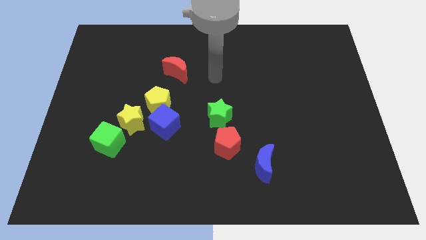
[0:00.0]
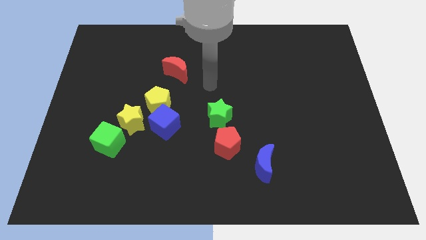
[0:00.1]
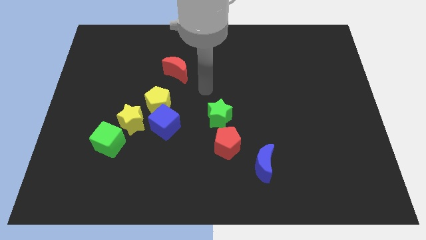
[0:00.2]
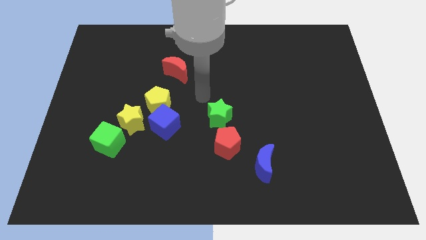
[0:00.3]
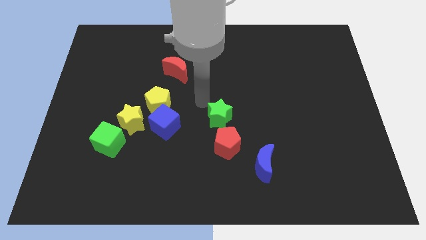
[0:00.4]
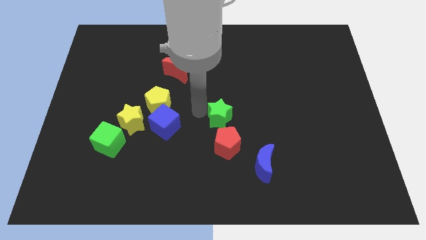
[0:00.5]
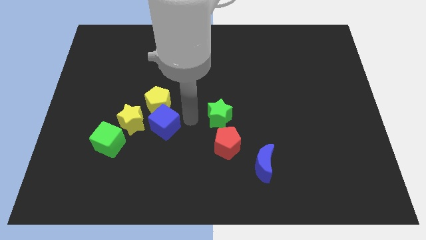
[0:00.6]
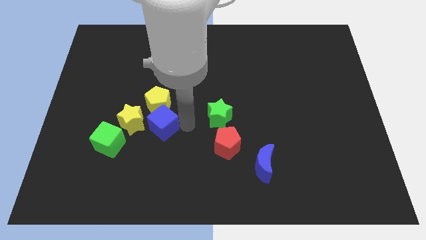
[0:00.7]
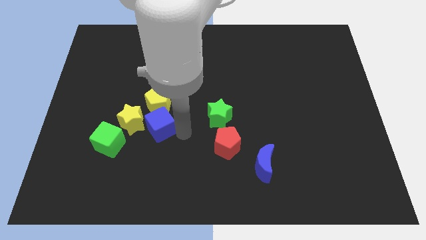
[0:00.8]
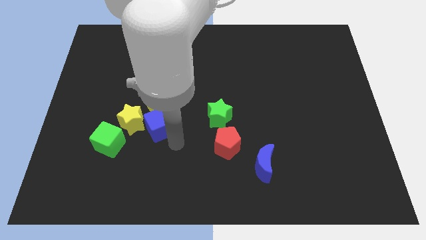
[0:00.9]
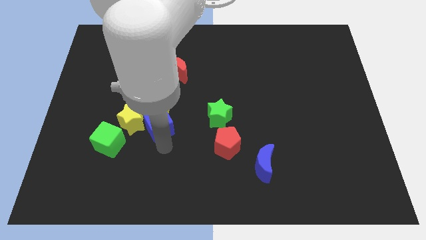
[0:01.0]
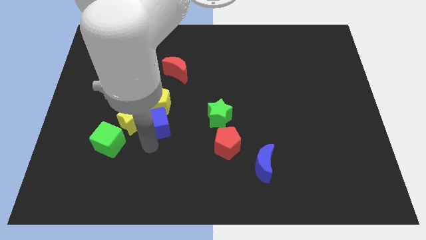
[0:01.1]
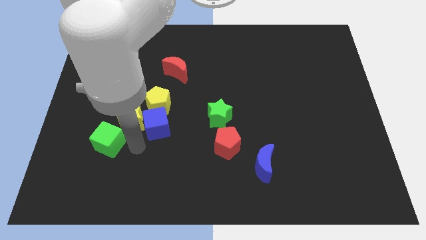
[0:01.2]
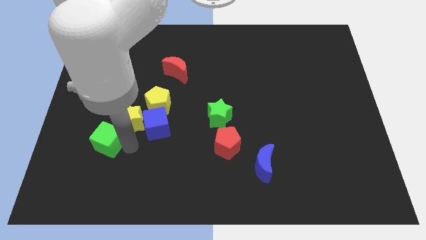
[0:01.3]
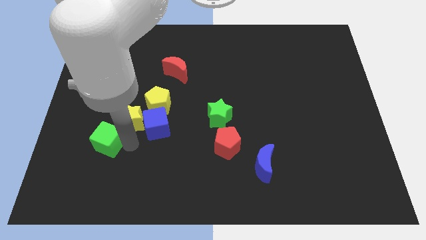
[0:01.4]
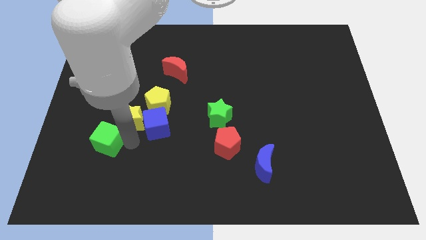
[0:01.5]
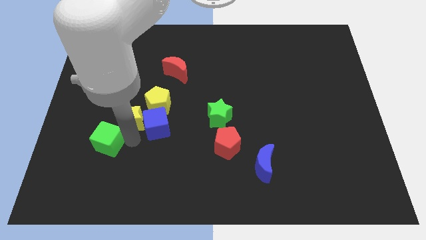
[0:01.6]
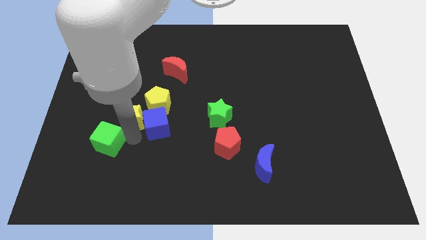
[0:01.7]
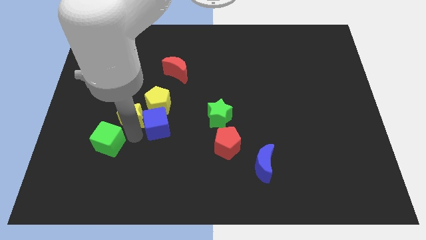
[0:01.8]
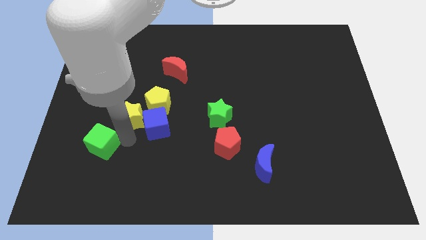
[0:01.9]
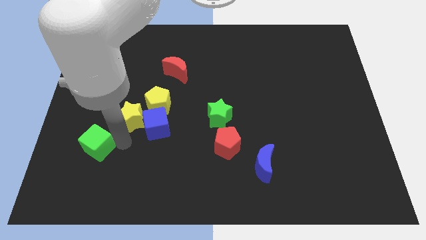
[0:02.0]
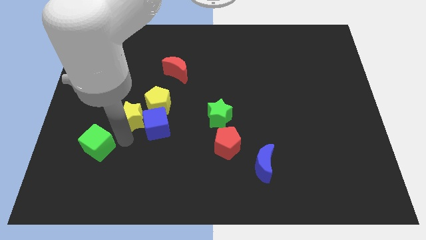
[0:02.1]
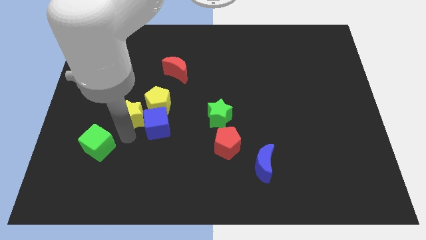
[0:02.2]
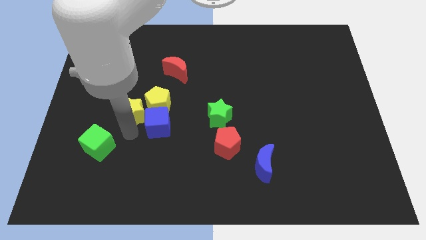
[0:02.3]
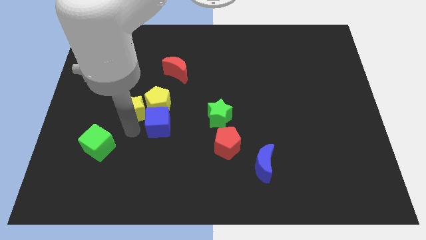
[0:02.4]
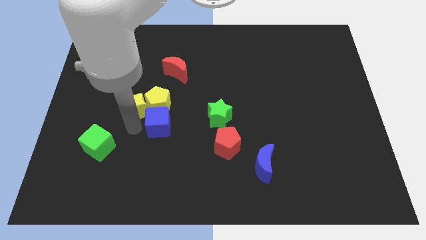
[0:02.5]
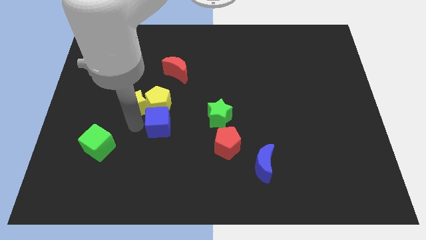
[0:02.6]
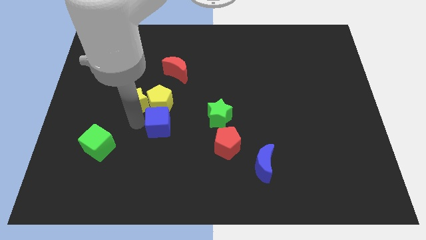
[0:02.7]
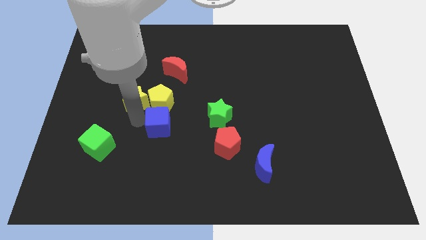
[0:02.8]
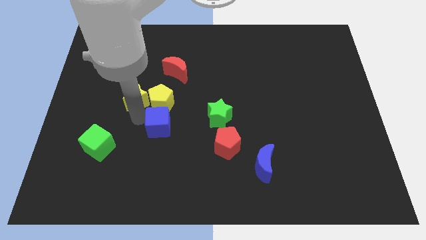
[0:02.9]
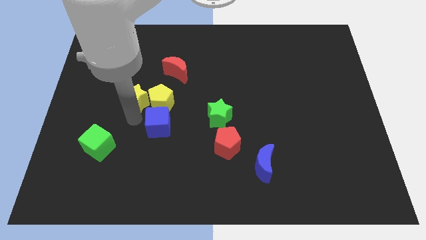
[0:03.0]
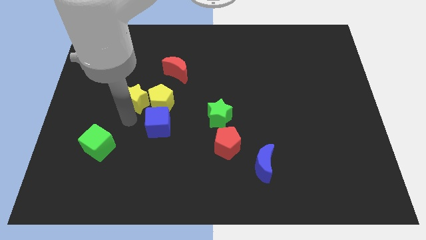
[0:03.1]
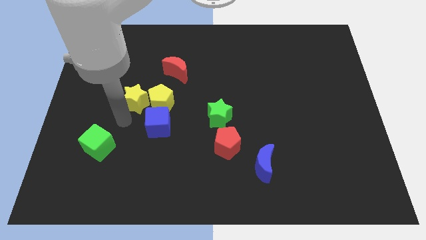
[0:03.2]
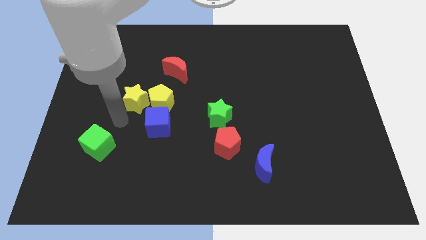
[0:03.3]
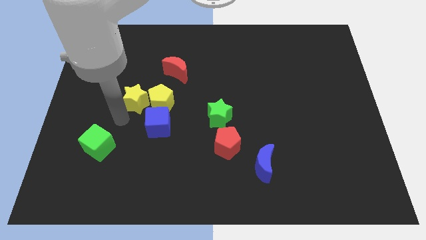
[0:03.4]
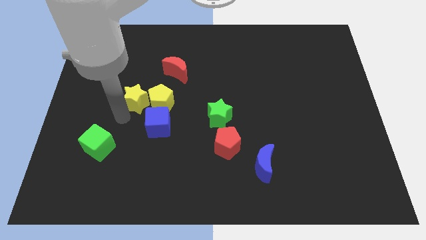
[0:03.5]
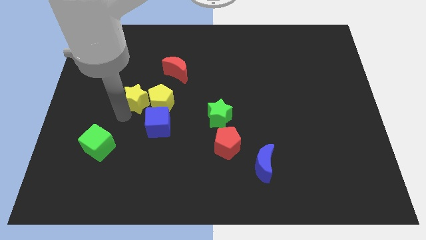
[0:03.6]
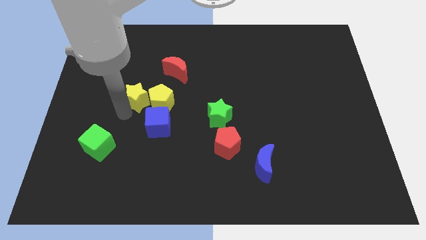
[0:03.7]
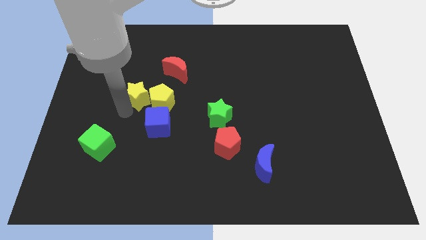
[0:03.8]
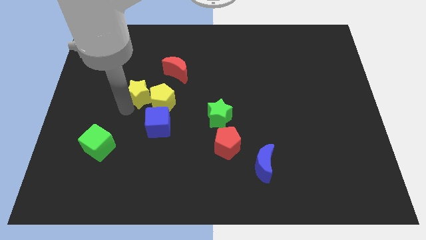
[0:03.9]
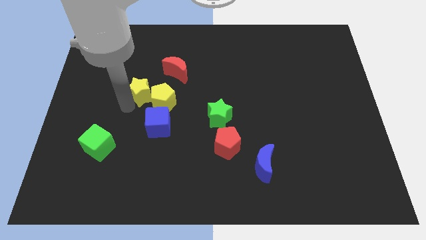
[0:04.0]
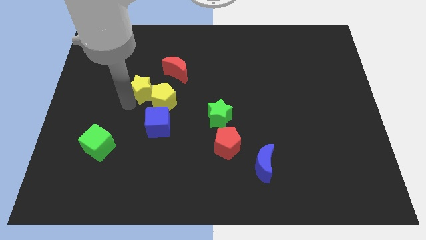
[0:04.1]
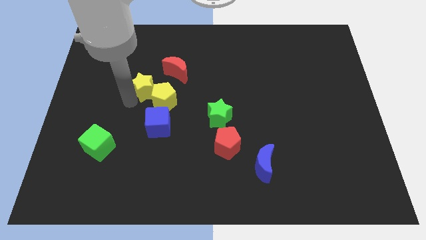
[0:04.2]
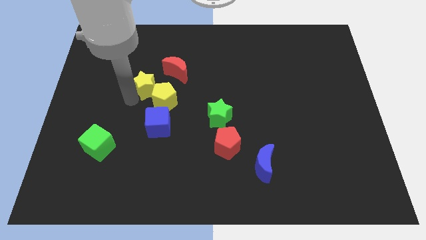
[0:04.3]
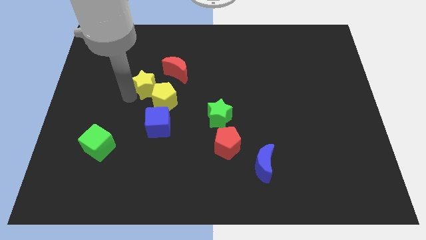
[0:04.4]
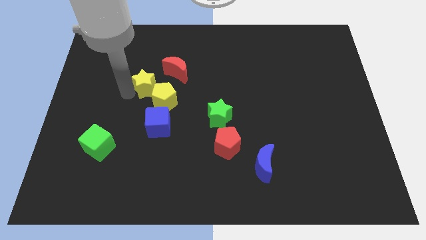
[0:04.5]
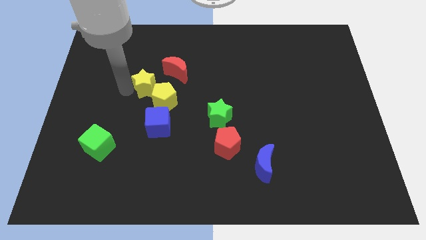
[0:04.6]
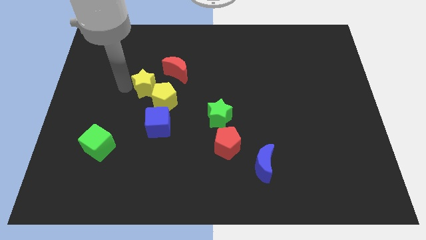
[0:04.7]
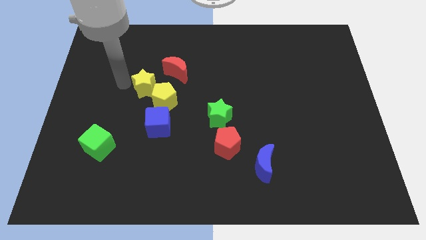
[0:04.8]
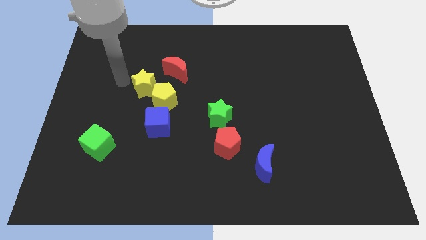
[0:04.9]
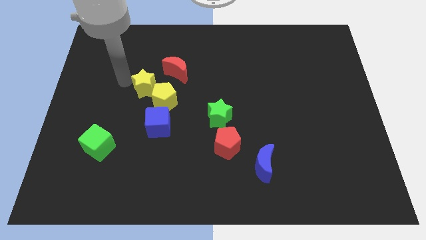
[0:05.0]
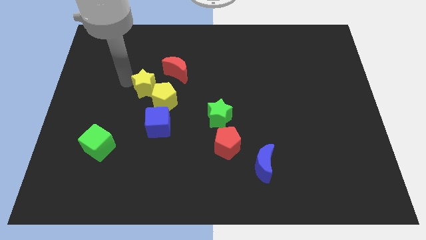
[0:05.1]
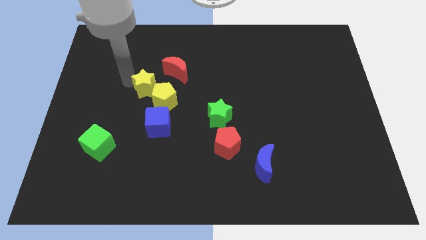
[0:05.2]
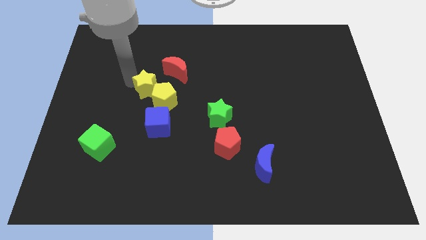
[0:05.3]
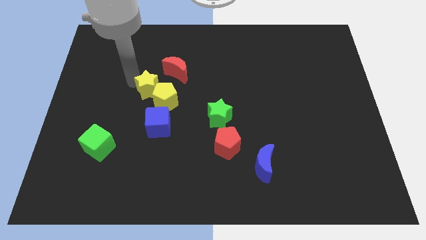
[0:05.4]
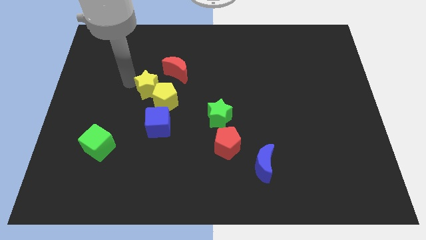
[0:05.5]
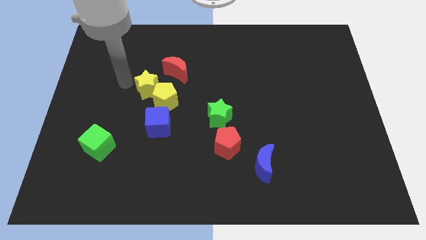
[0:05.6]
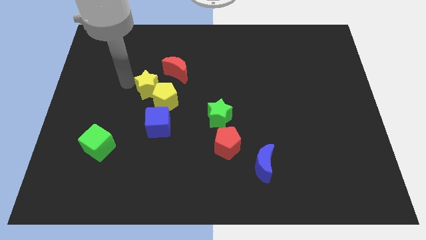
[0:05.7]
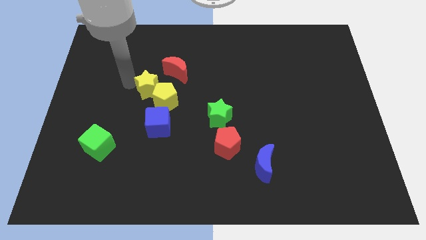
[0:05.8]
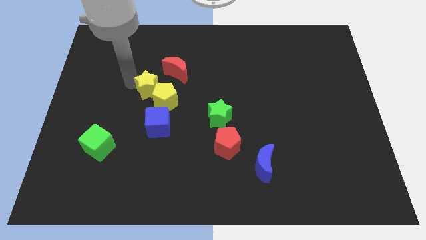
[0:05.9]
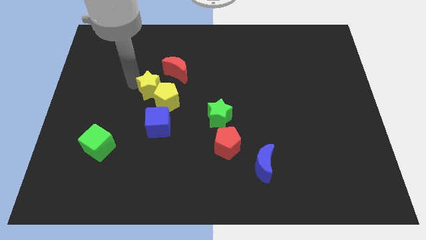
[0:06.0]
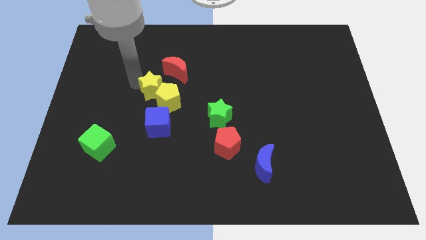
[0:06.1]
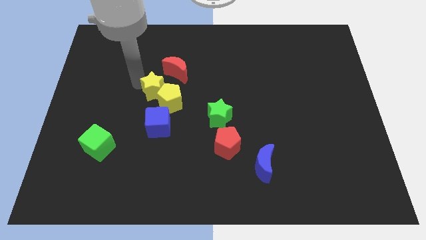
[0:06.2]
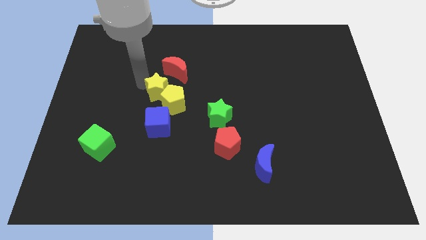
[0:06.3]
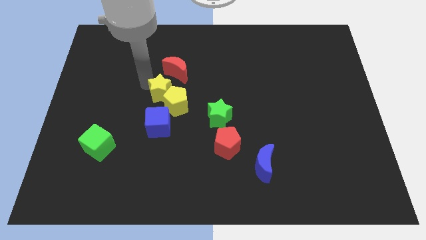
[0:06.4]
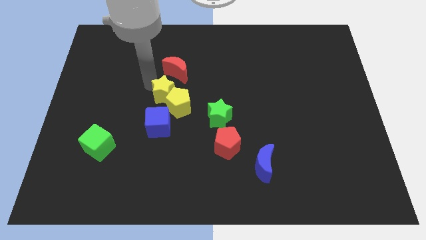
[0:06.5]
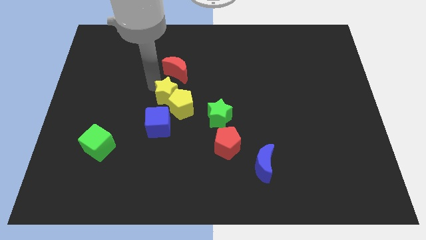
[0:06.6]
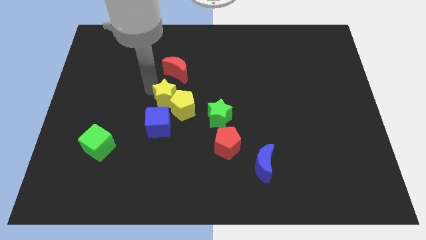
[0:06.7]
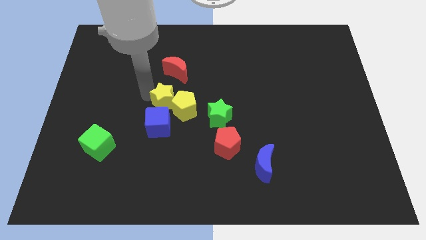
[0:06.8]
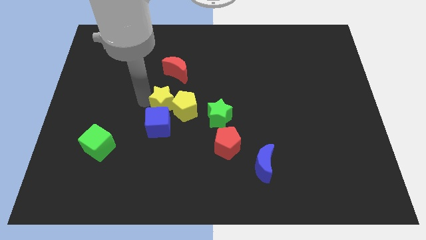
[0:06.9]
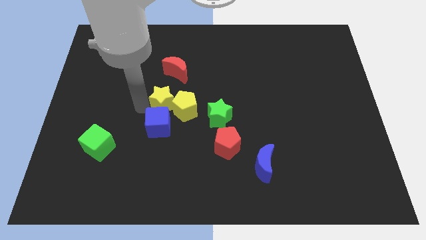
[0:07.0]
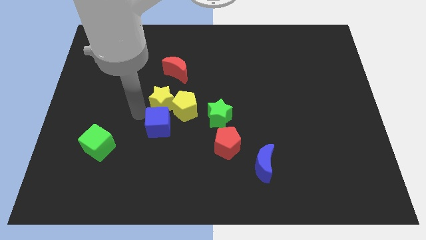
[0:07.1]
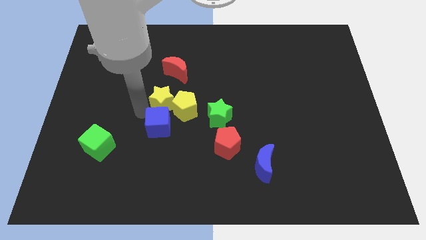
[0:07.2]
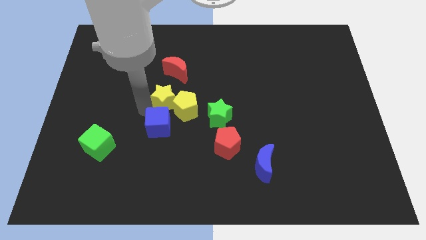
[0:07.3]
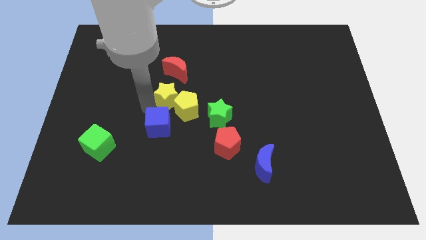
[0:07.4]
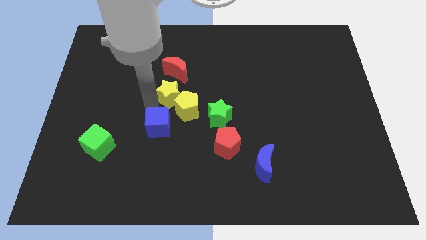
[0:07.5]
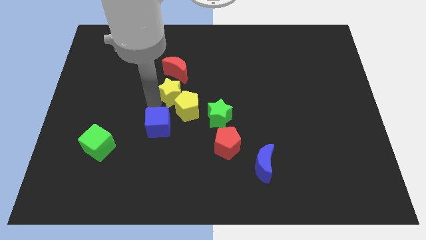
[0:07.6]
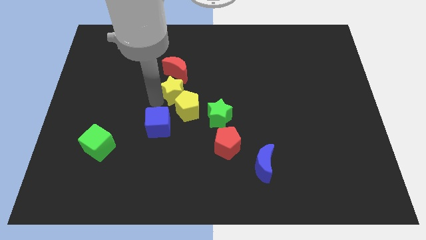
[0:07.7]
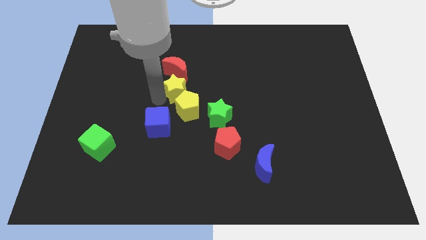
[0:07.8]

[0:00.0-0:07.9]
push the yellow star diagonally down and to the right of the red moon
